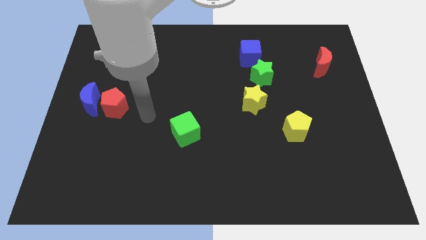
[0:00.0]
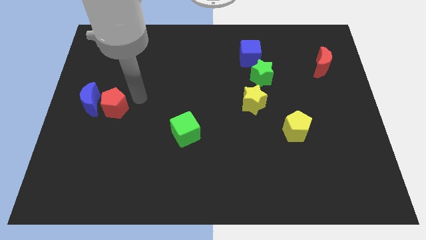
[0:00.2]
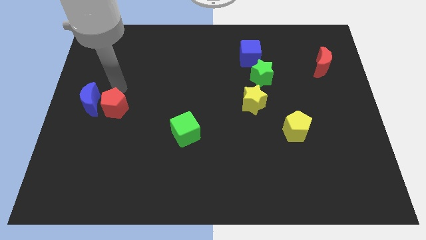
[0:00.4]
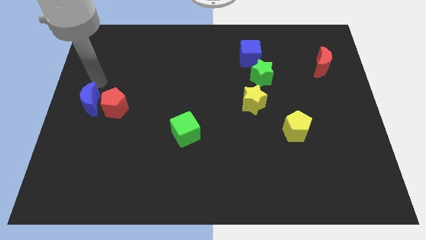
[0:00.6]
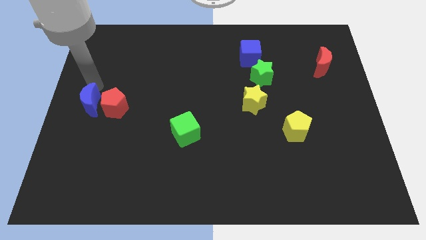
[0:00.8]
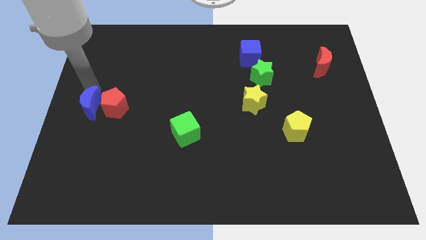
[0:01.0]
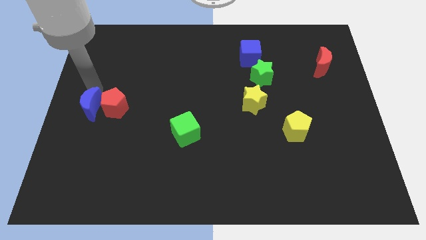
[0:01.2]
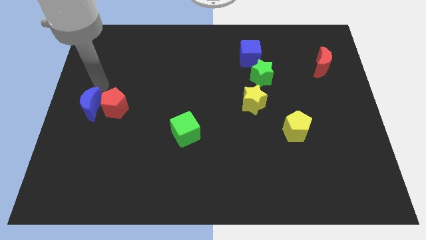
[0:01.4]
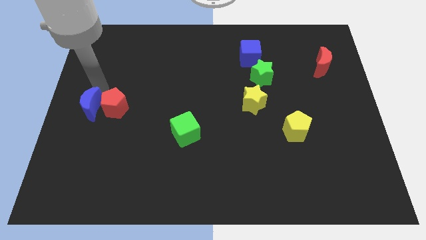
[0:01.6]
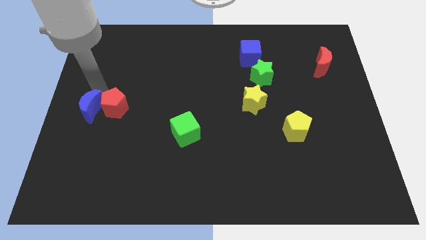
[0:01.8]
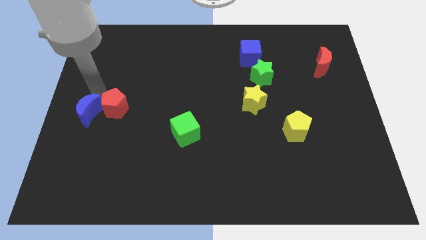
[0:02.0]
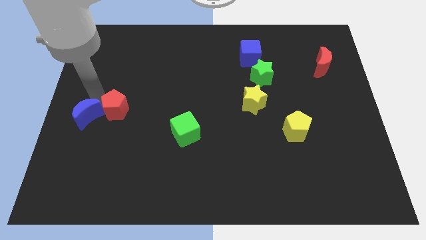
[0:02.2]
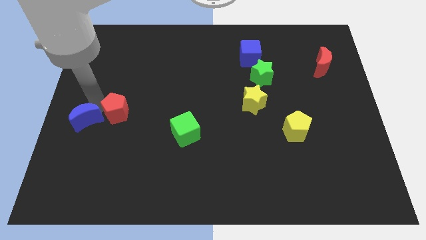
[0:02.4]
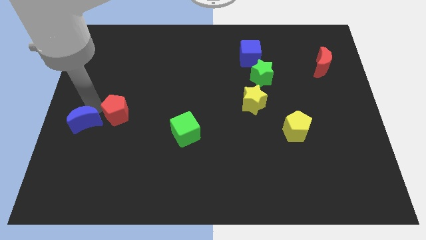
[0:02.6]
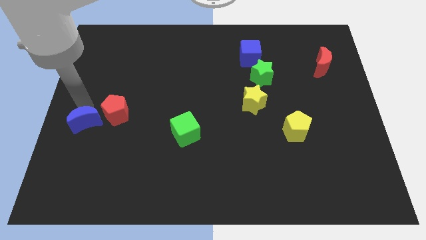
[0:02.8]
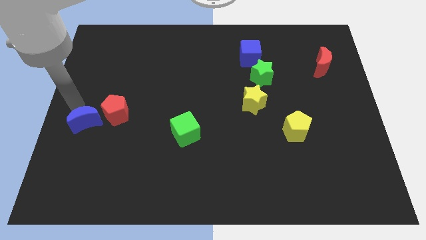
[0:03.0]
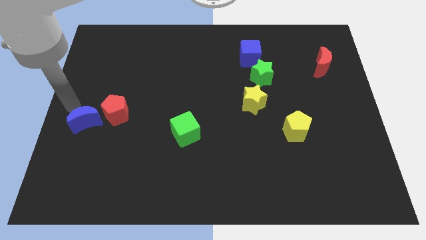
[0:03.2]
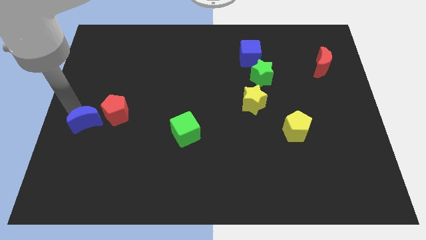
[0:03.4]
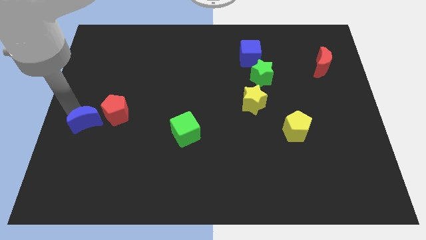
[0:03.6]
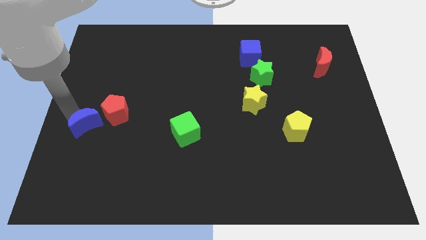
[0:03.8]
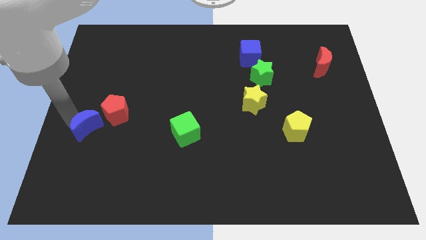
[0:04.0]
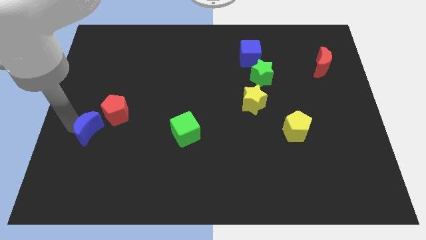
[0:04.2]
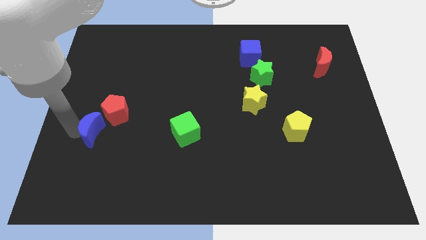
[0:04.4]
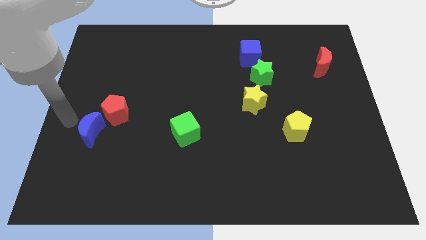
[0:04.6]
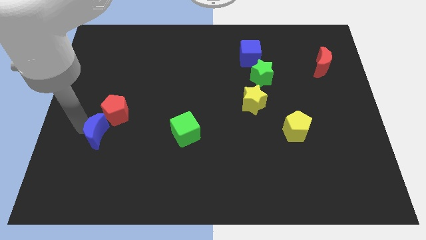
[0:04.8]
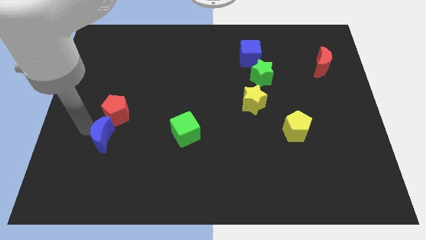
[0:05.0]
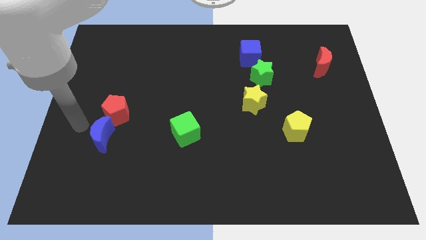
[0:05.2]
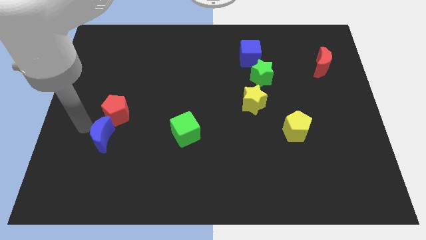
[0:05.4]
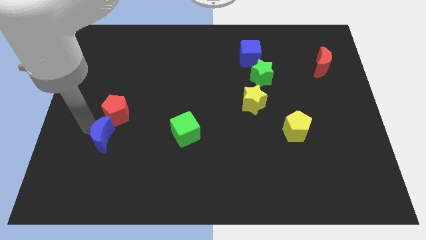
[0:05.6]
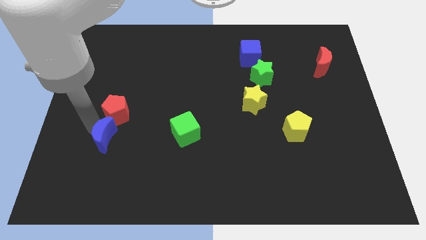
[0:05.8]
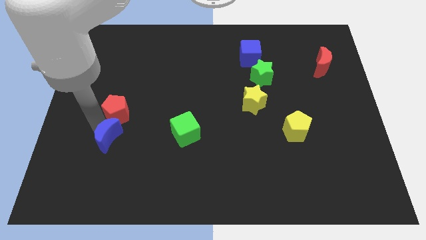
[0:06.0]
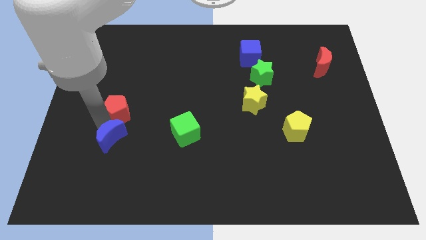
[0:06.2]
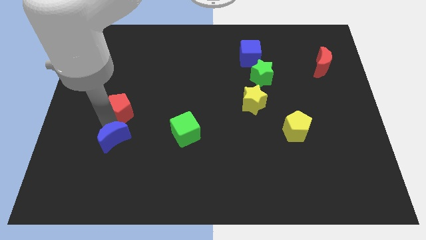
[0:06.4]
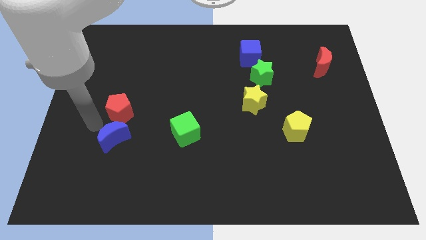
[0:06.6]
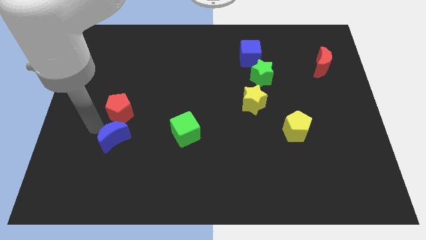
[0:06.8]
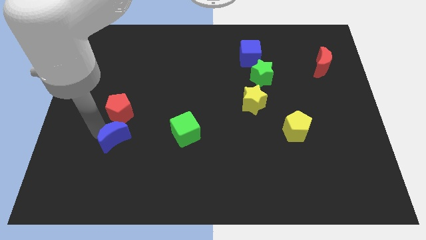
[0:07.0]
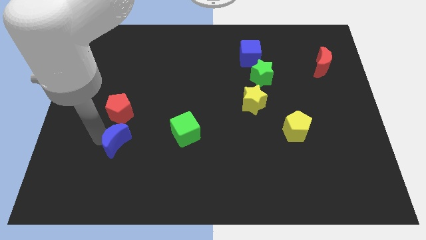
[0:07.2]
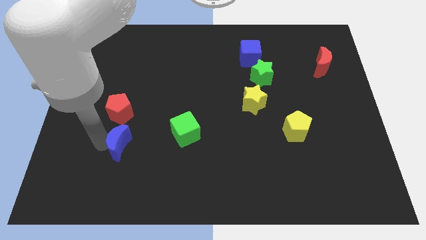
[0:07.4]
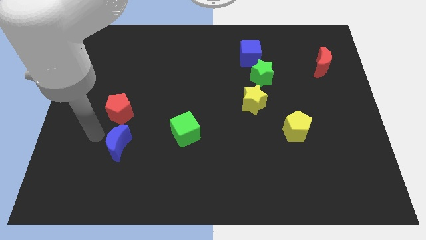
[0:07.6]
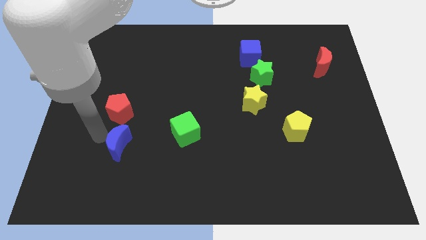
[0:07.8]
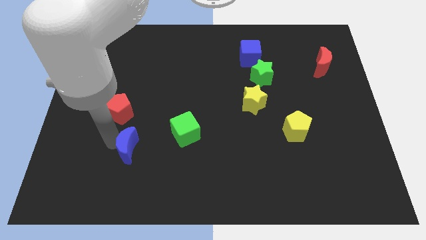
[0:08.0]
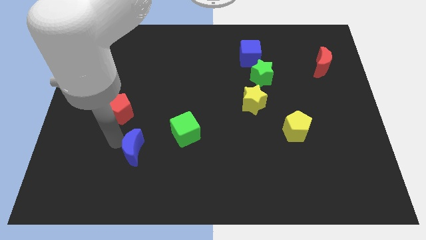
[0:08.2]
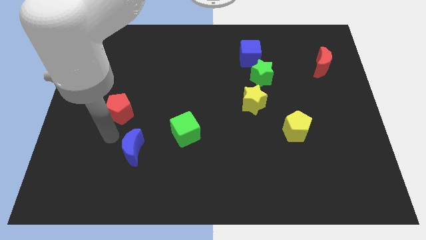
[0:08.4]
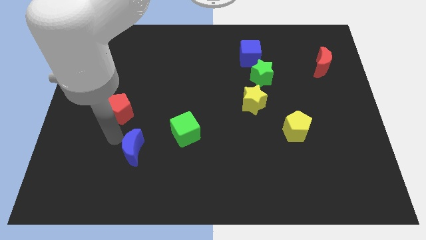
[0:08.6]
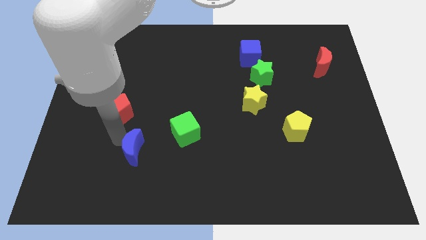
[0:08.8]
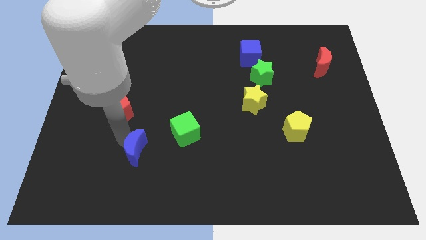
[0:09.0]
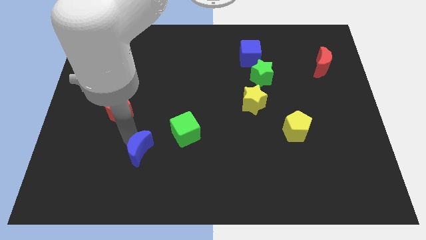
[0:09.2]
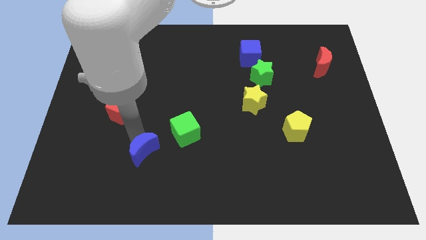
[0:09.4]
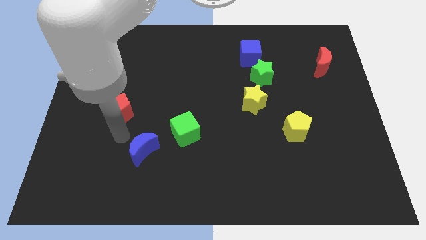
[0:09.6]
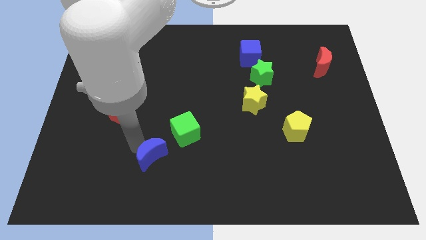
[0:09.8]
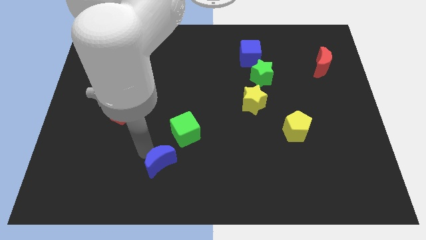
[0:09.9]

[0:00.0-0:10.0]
push the blue moon below the green cube

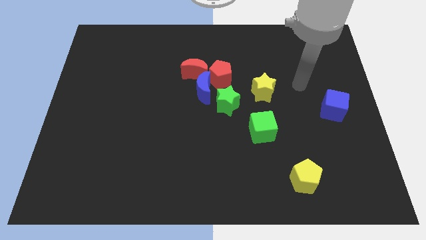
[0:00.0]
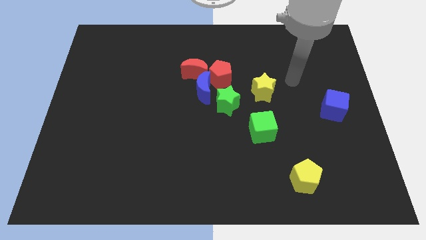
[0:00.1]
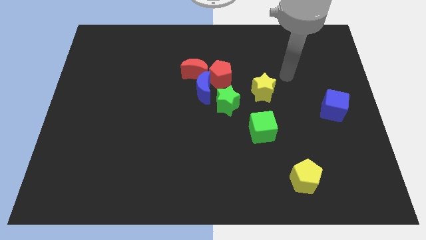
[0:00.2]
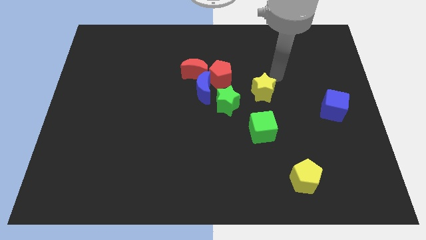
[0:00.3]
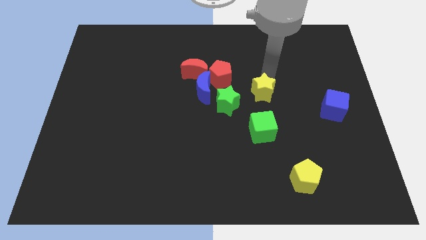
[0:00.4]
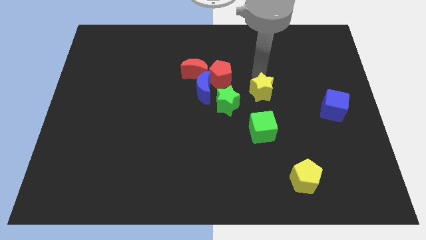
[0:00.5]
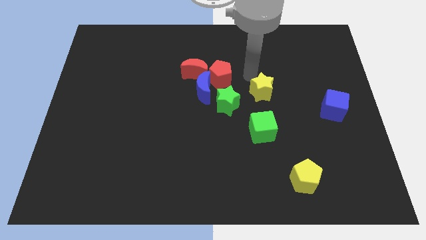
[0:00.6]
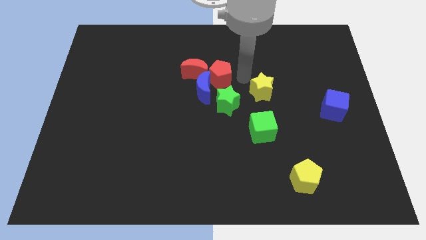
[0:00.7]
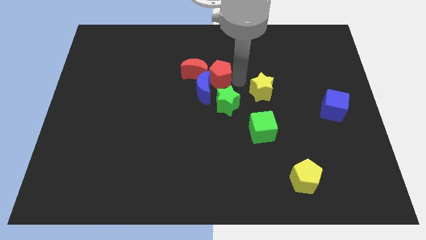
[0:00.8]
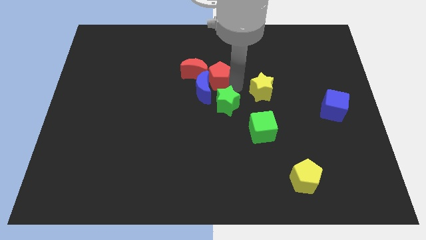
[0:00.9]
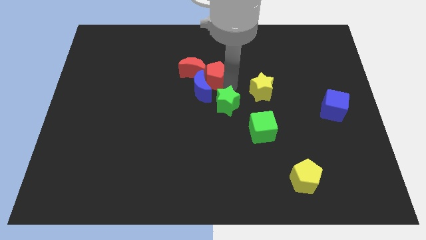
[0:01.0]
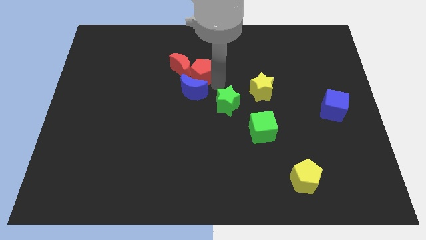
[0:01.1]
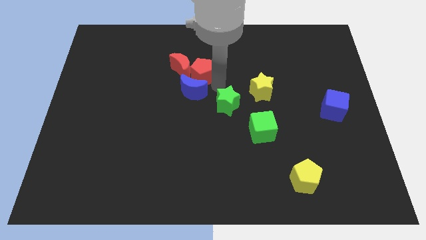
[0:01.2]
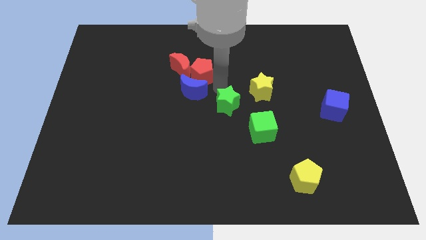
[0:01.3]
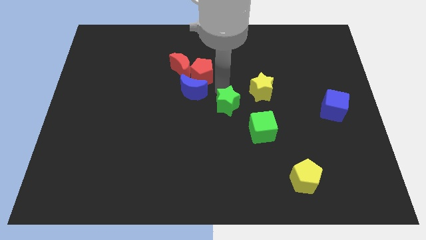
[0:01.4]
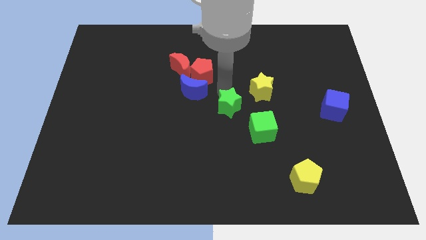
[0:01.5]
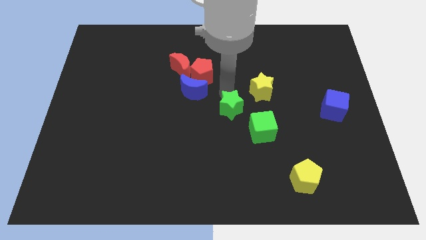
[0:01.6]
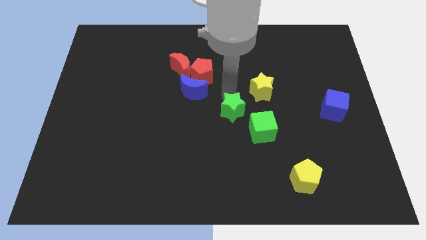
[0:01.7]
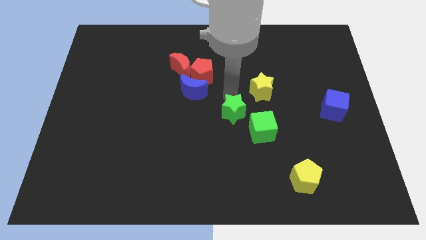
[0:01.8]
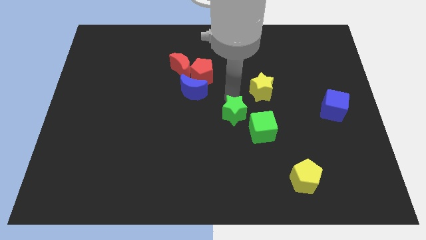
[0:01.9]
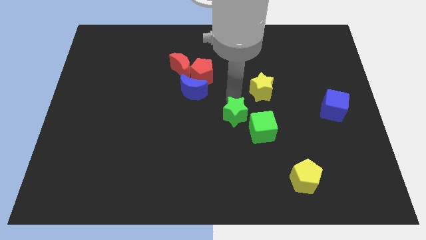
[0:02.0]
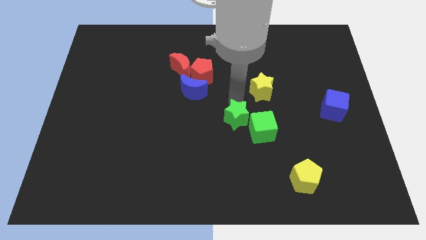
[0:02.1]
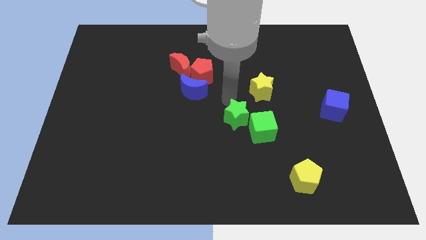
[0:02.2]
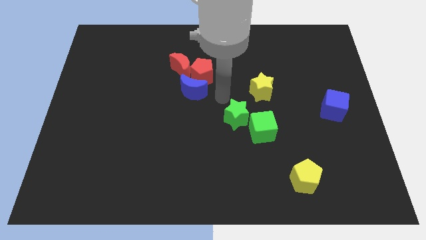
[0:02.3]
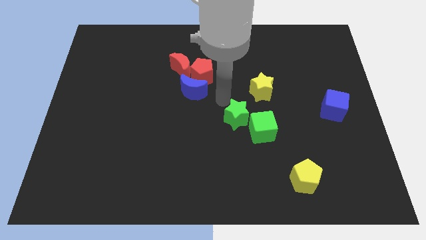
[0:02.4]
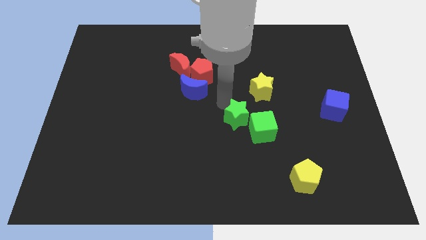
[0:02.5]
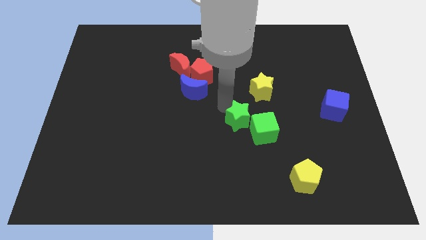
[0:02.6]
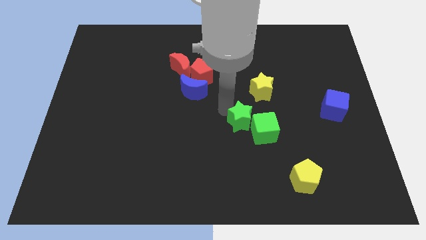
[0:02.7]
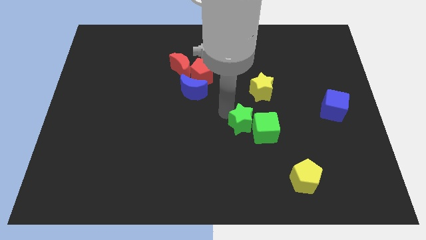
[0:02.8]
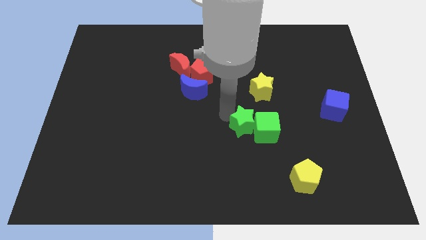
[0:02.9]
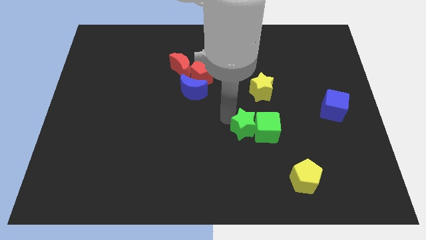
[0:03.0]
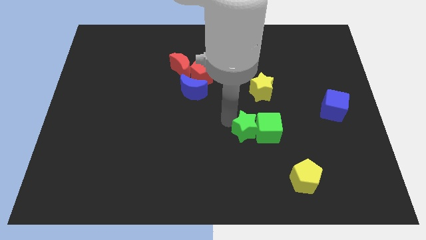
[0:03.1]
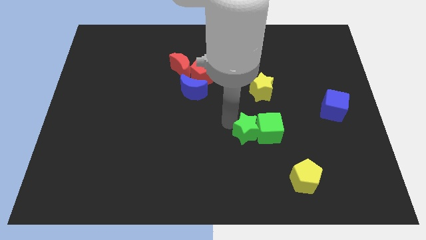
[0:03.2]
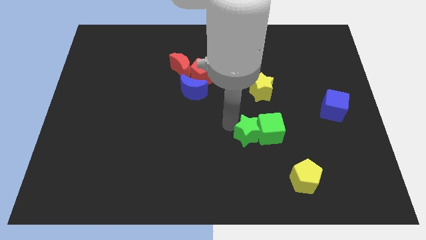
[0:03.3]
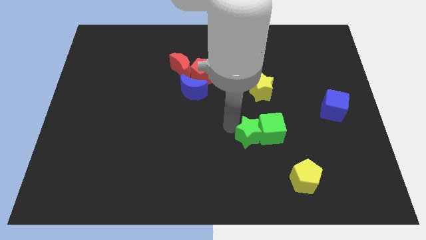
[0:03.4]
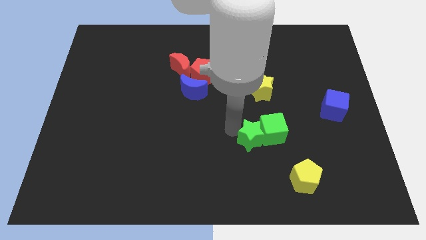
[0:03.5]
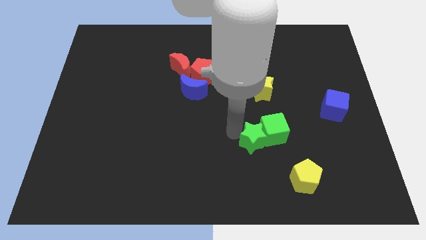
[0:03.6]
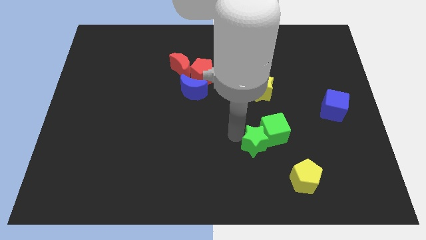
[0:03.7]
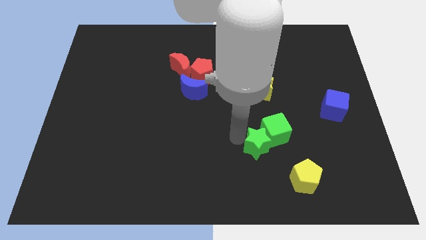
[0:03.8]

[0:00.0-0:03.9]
push the green star diagonally up and to the left of the yellow pentagon
